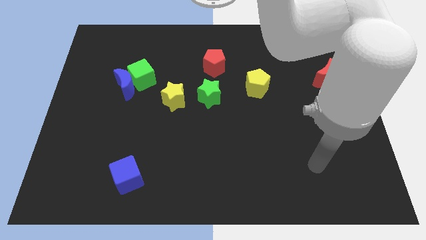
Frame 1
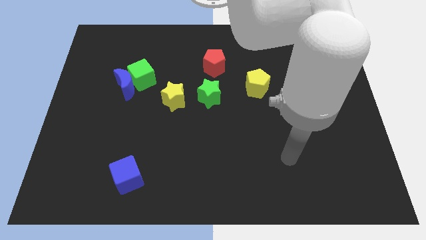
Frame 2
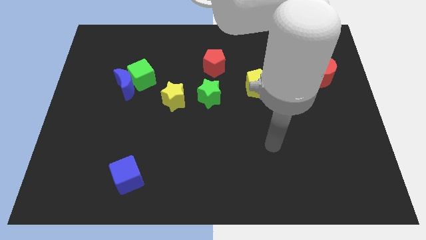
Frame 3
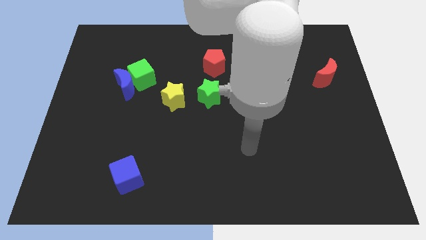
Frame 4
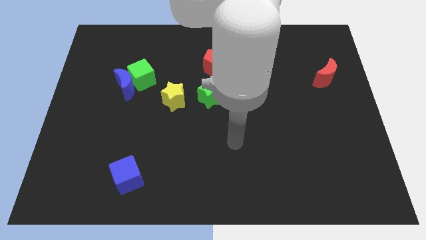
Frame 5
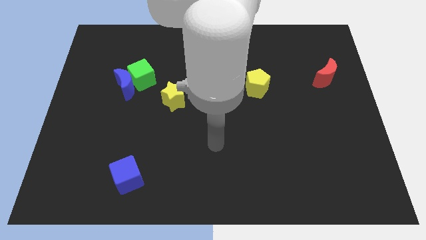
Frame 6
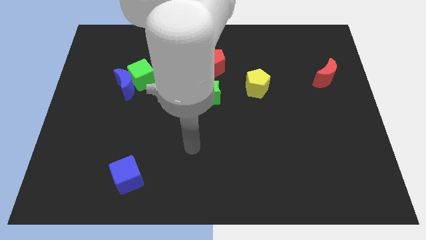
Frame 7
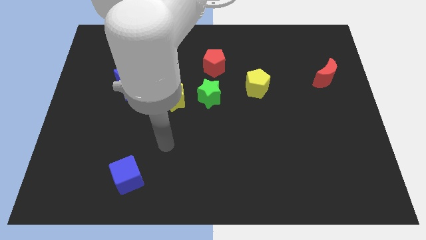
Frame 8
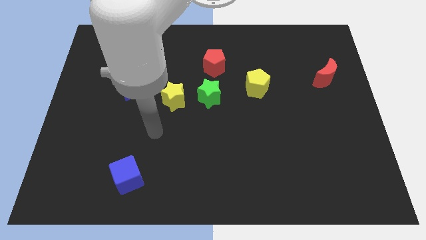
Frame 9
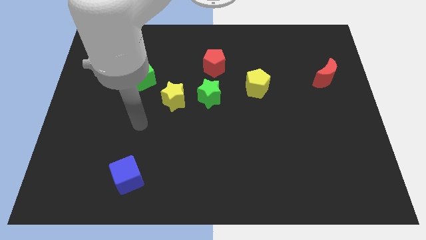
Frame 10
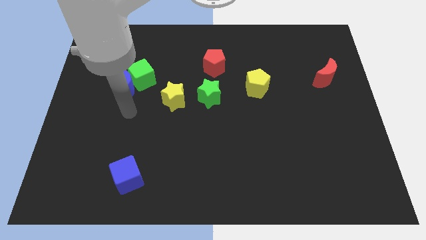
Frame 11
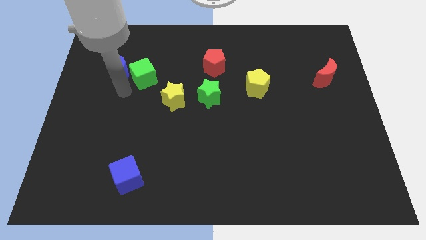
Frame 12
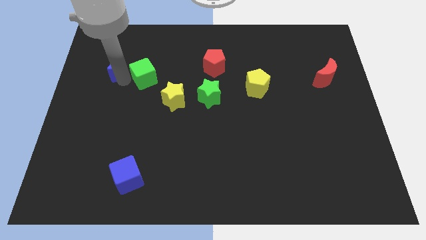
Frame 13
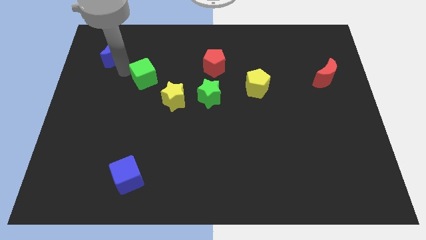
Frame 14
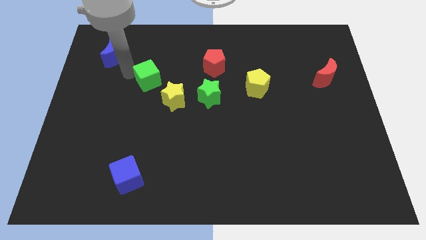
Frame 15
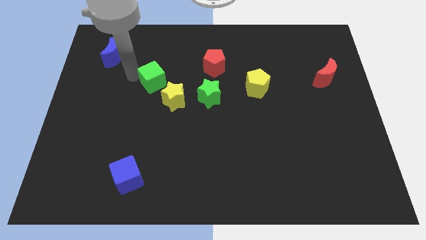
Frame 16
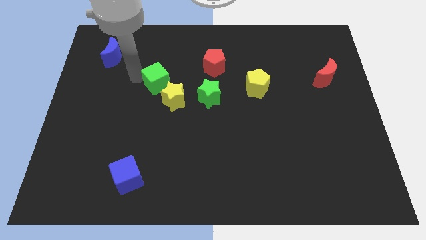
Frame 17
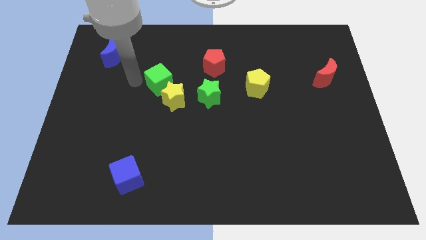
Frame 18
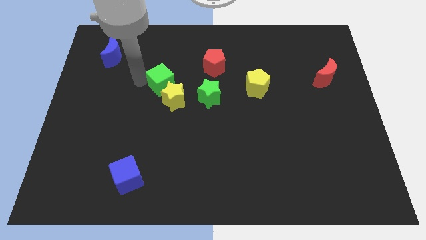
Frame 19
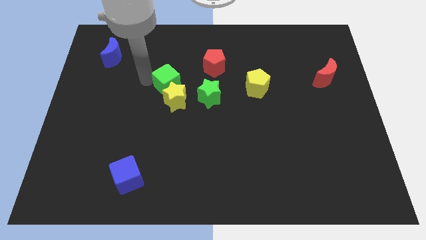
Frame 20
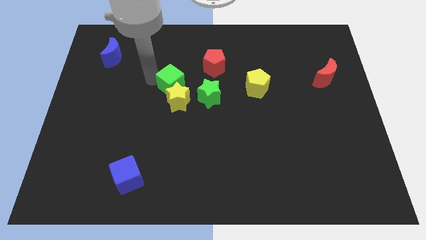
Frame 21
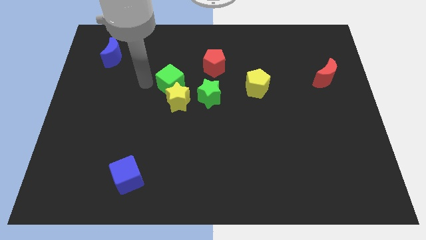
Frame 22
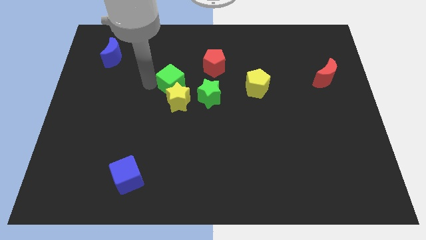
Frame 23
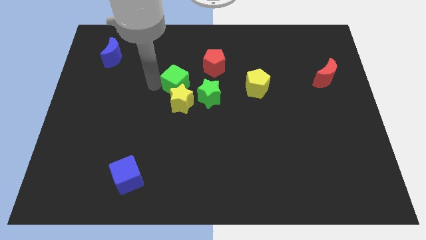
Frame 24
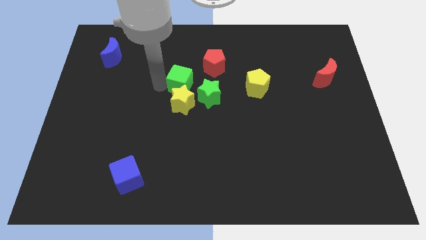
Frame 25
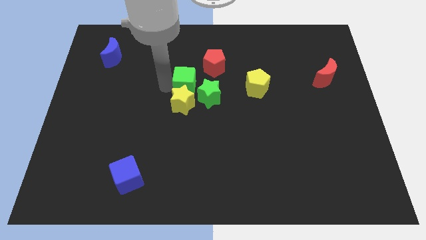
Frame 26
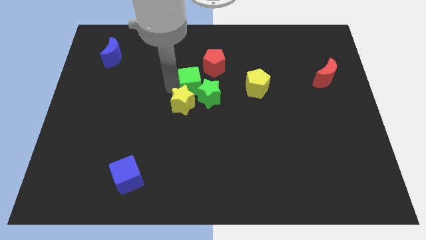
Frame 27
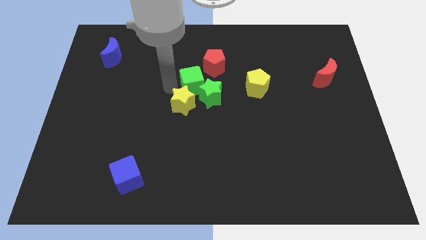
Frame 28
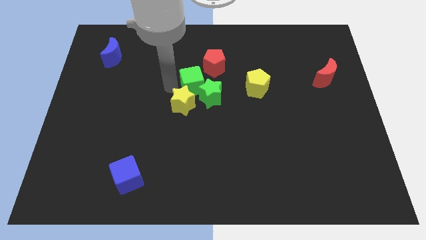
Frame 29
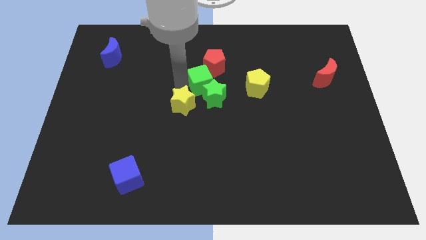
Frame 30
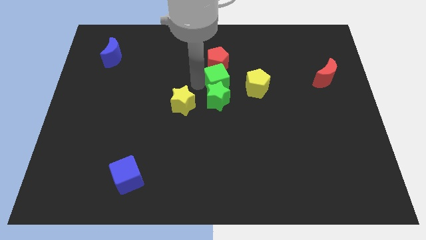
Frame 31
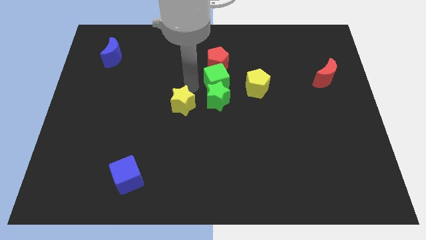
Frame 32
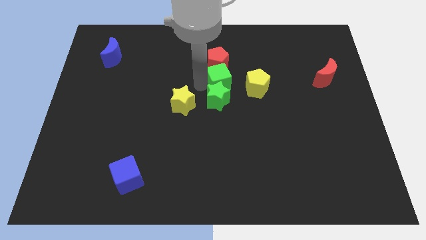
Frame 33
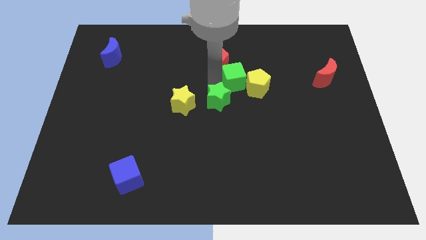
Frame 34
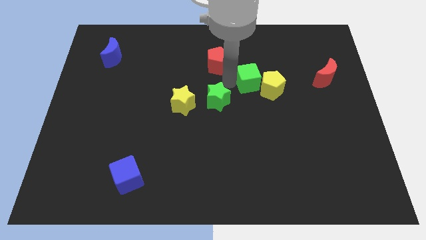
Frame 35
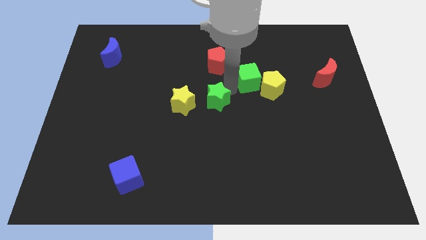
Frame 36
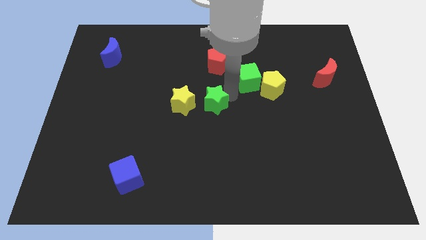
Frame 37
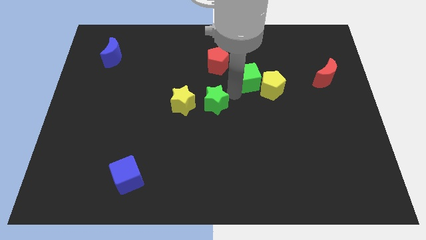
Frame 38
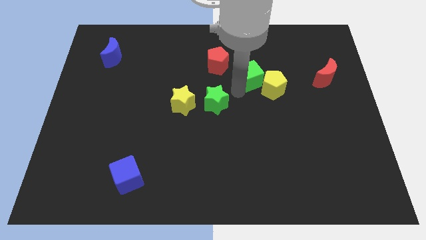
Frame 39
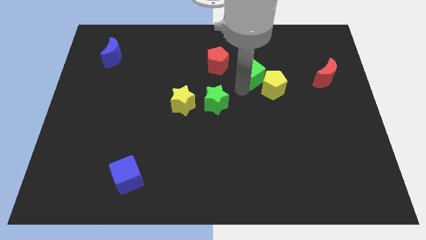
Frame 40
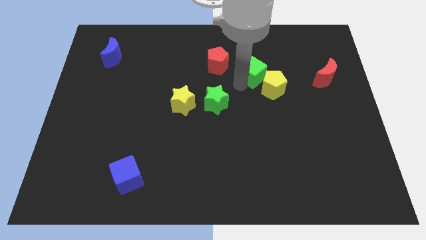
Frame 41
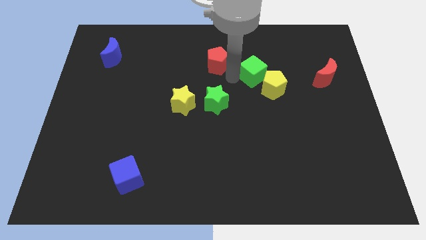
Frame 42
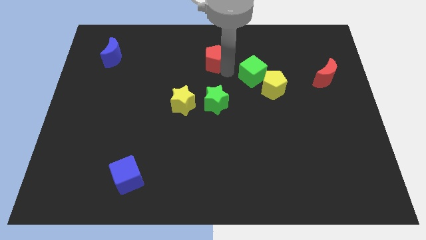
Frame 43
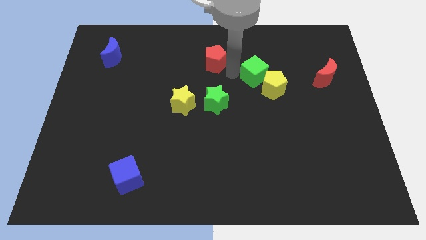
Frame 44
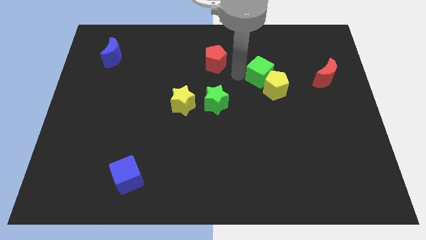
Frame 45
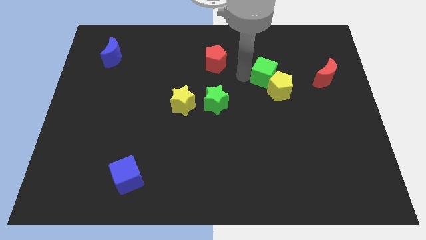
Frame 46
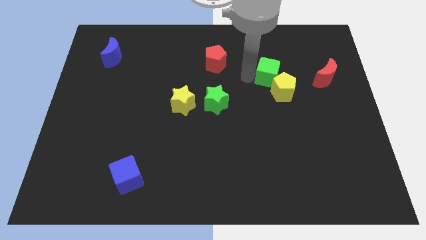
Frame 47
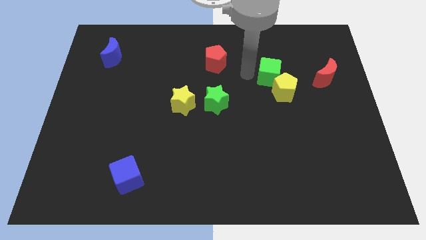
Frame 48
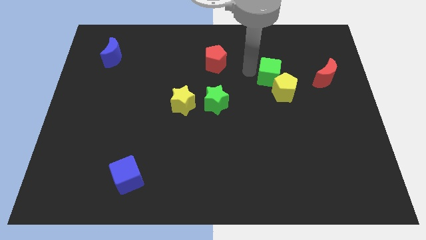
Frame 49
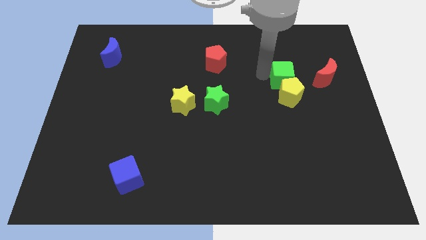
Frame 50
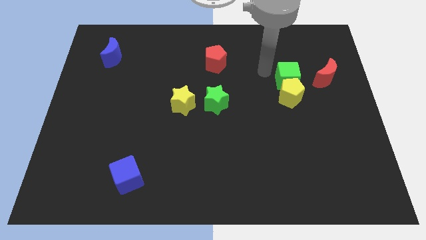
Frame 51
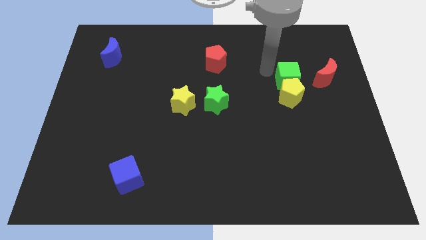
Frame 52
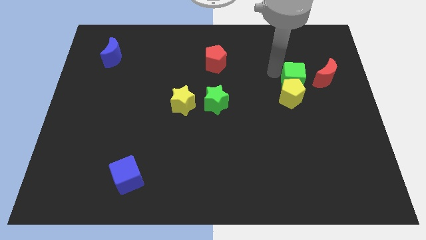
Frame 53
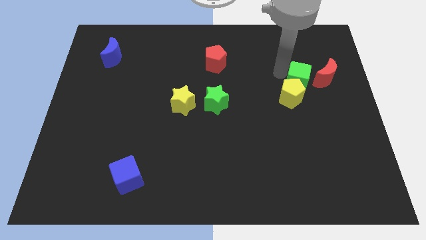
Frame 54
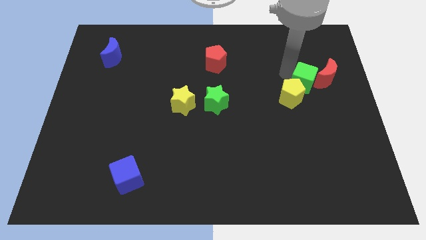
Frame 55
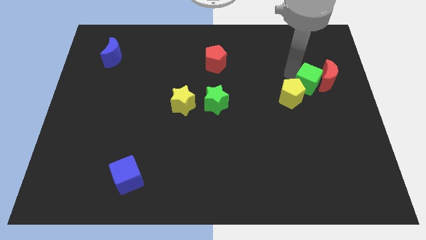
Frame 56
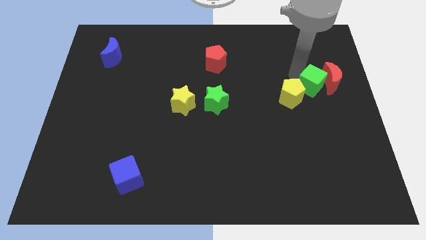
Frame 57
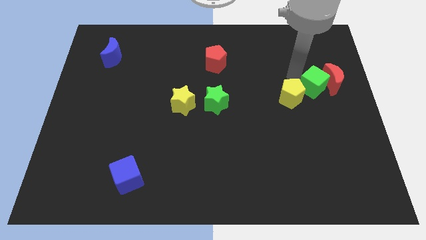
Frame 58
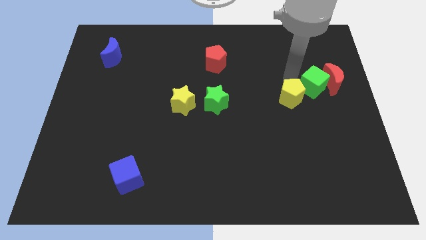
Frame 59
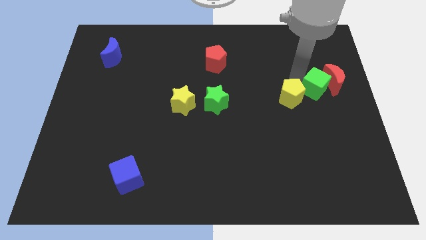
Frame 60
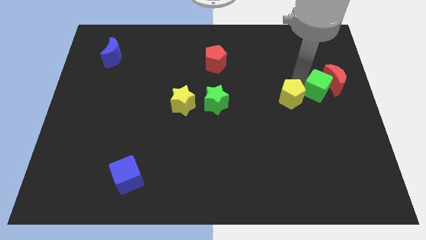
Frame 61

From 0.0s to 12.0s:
push the green cube to the center right
